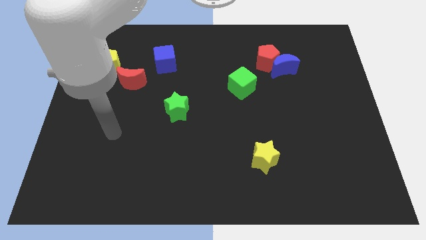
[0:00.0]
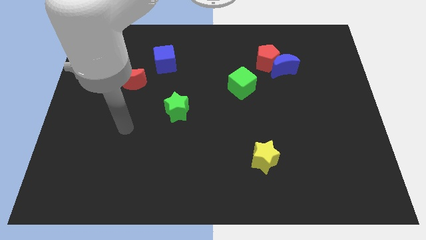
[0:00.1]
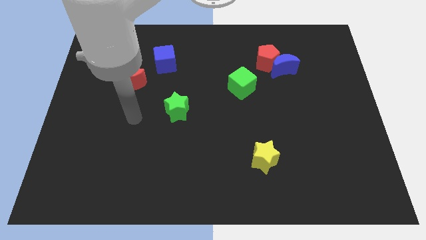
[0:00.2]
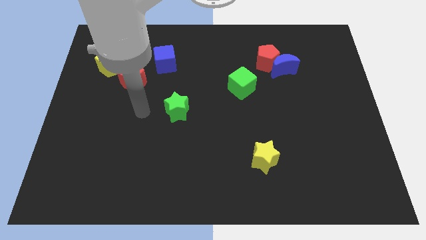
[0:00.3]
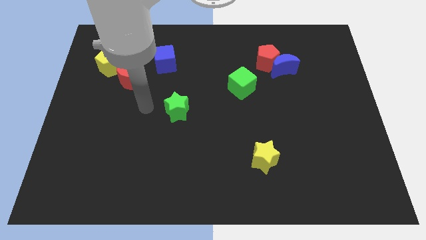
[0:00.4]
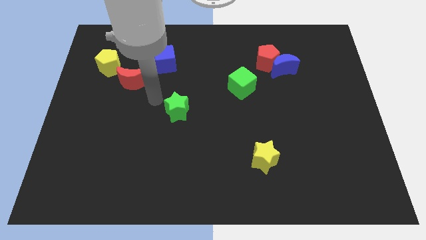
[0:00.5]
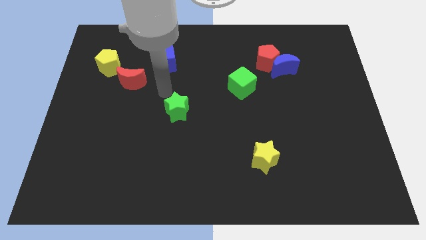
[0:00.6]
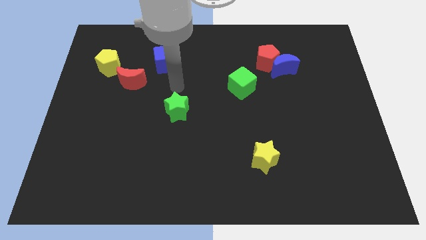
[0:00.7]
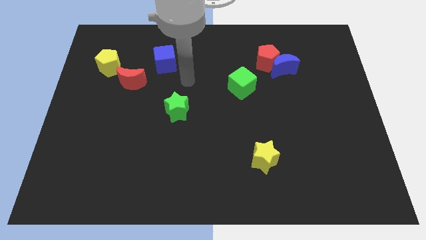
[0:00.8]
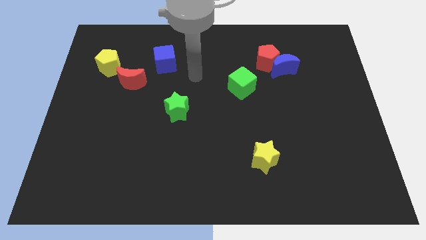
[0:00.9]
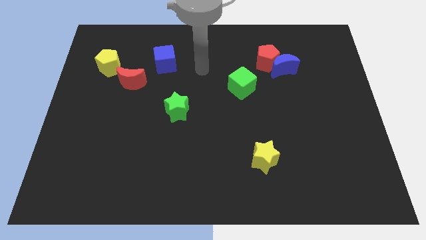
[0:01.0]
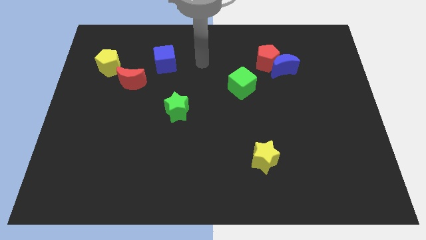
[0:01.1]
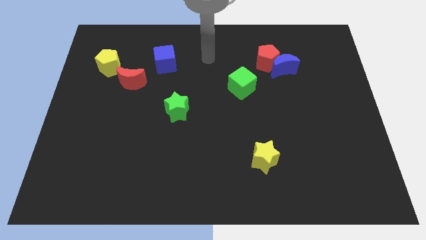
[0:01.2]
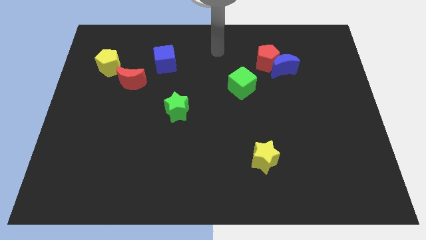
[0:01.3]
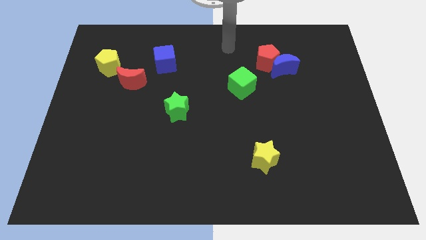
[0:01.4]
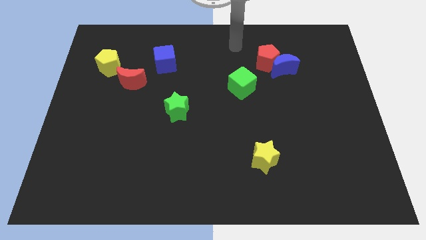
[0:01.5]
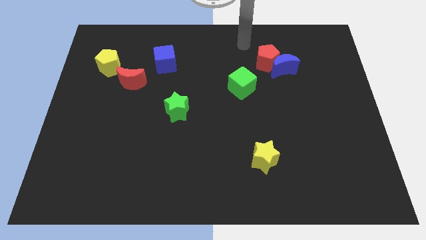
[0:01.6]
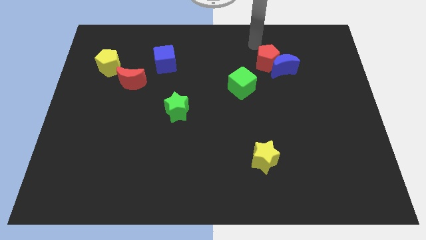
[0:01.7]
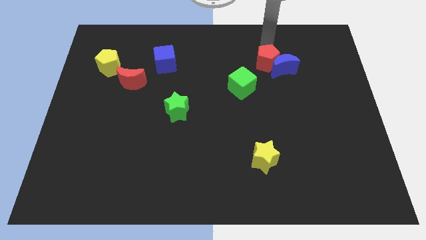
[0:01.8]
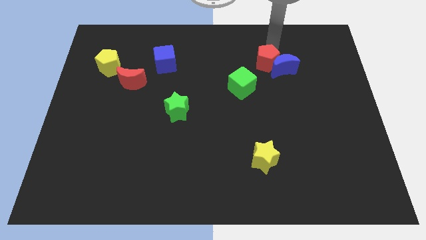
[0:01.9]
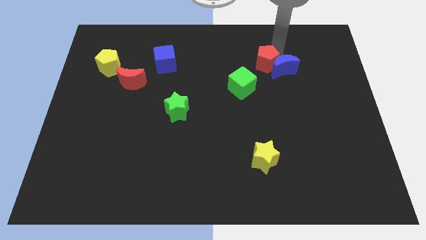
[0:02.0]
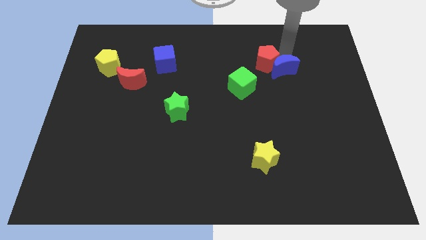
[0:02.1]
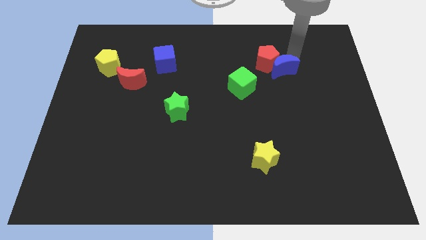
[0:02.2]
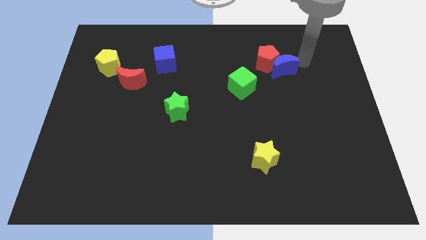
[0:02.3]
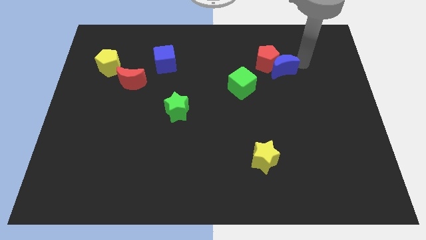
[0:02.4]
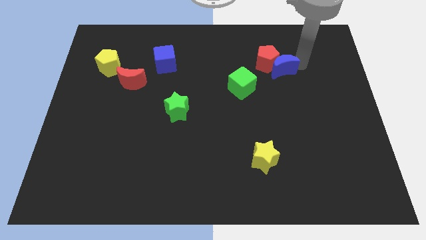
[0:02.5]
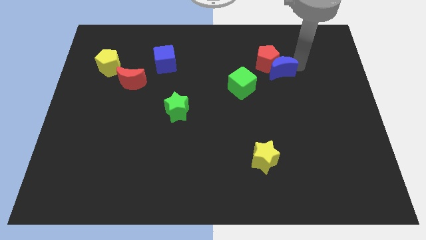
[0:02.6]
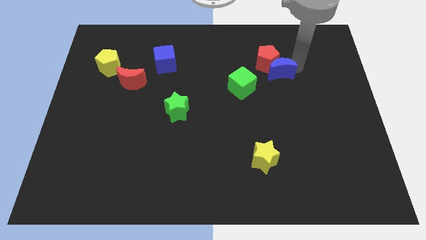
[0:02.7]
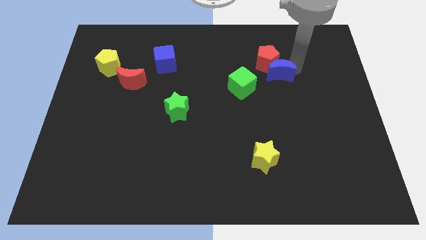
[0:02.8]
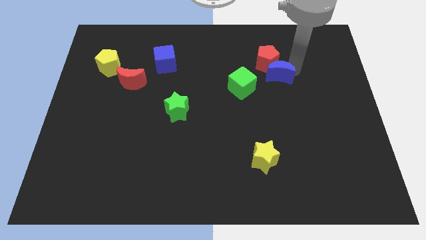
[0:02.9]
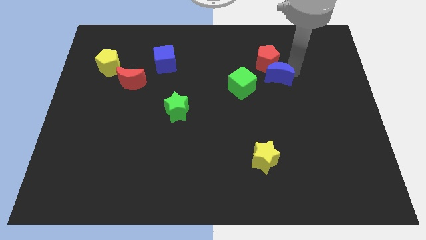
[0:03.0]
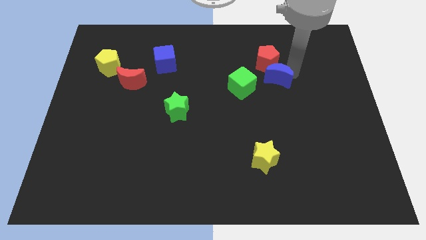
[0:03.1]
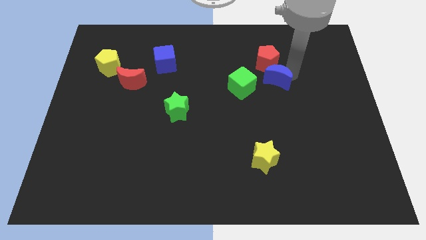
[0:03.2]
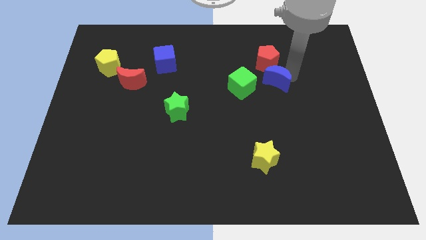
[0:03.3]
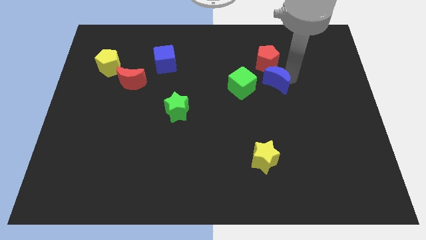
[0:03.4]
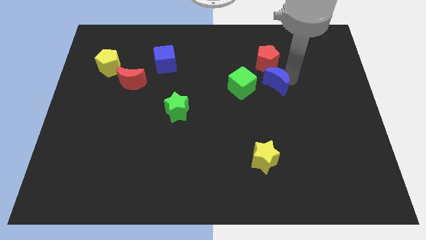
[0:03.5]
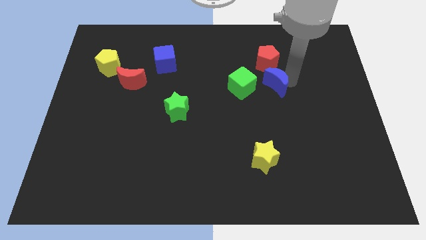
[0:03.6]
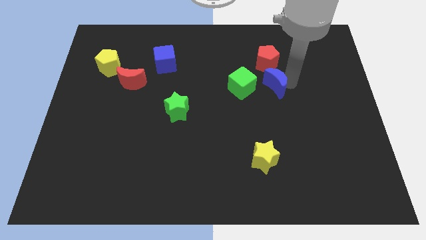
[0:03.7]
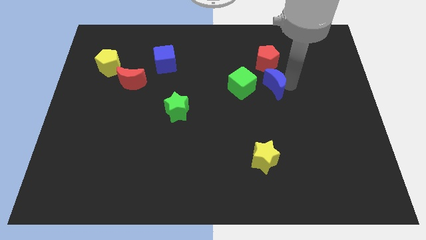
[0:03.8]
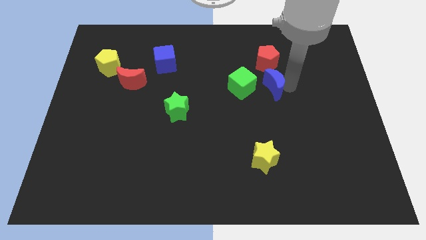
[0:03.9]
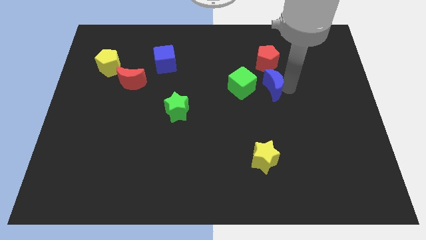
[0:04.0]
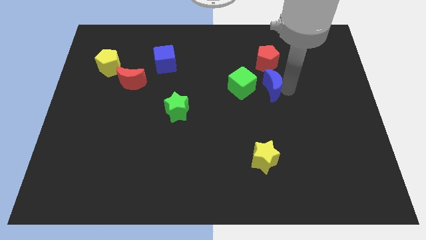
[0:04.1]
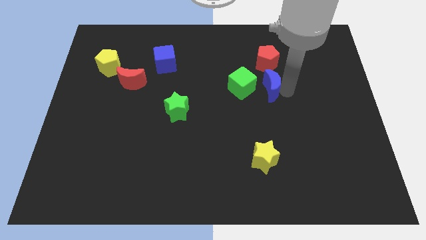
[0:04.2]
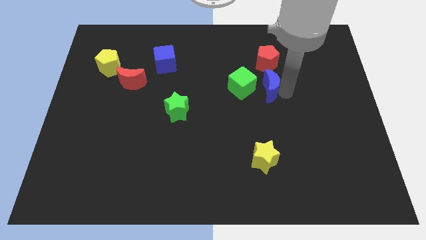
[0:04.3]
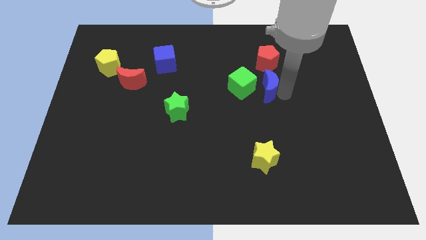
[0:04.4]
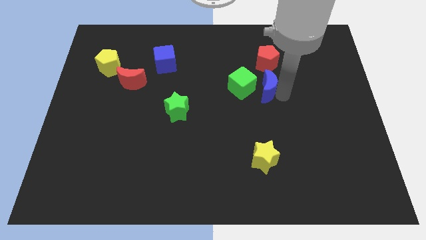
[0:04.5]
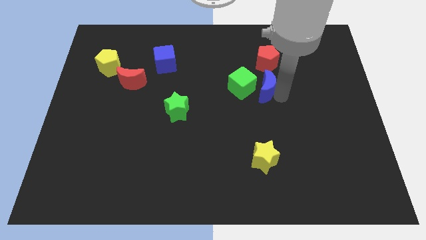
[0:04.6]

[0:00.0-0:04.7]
put the blue moon towards the green cube

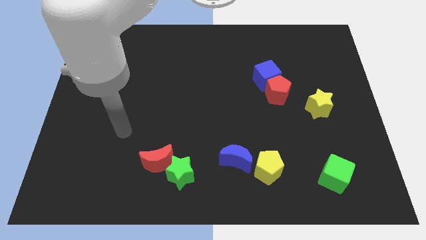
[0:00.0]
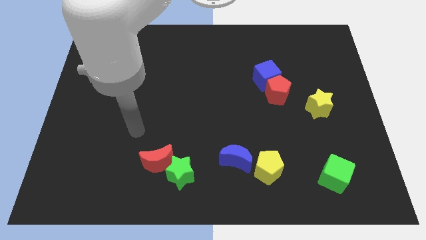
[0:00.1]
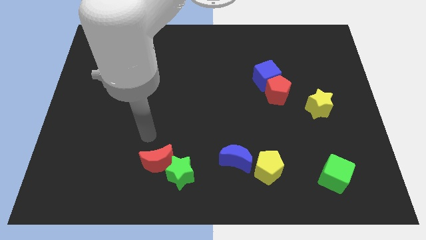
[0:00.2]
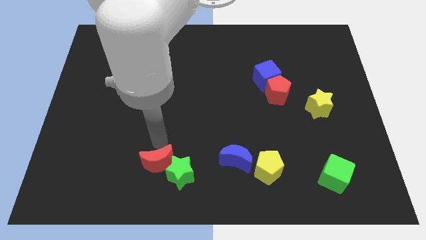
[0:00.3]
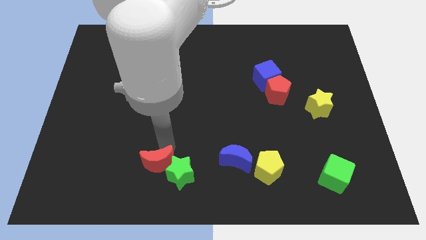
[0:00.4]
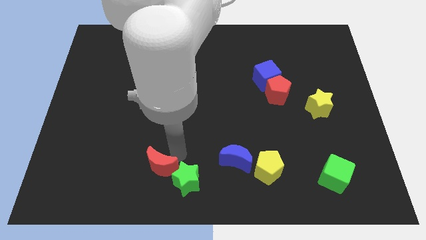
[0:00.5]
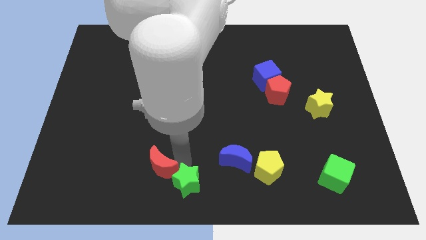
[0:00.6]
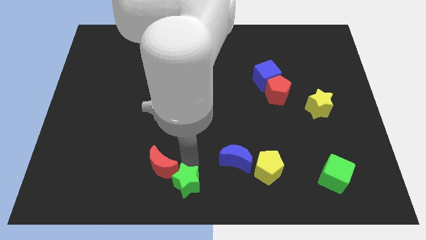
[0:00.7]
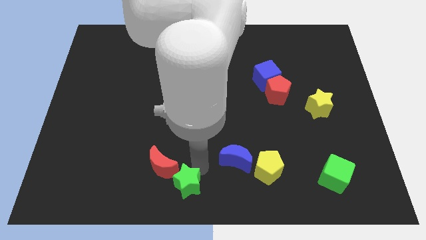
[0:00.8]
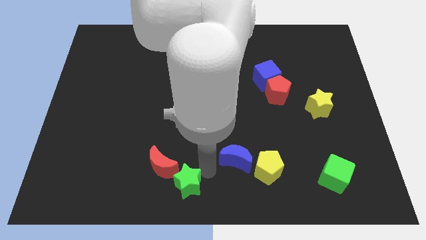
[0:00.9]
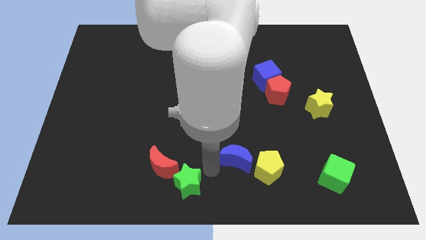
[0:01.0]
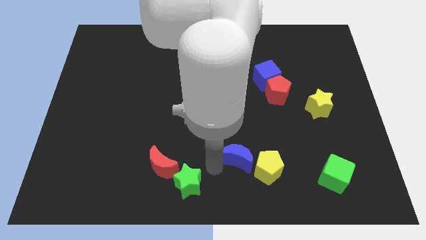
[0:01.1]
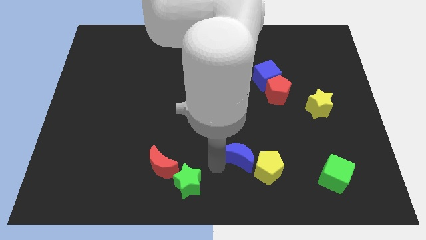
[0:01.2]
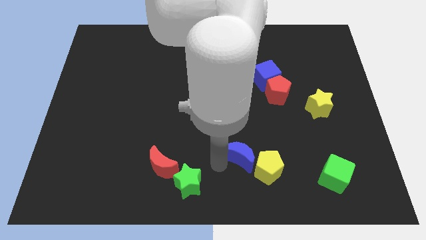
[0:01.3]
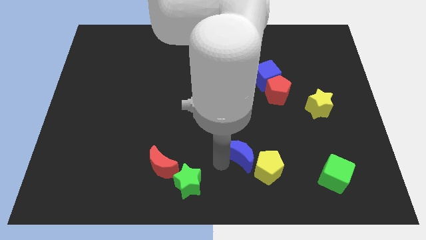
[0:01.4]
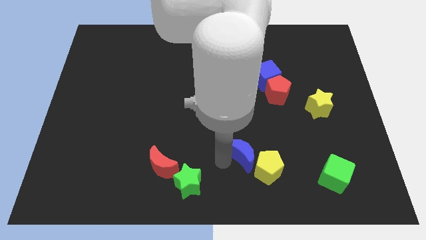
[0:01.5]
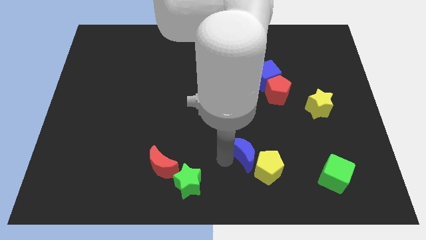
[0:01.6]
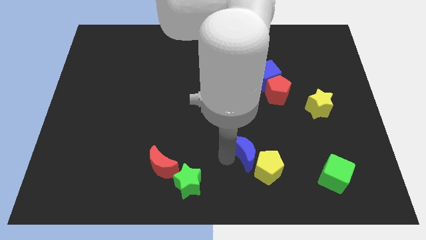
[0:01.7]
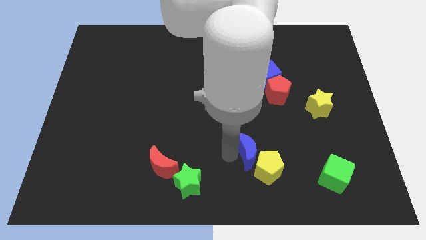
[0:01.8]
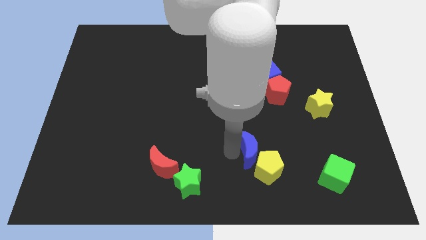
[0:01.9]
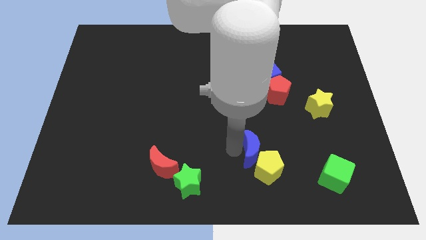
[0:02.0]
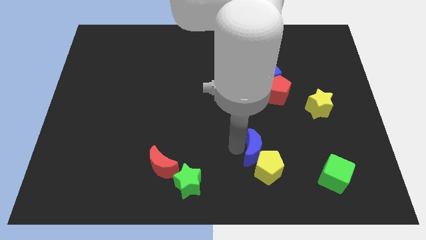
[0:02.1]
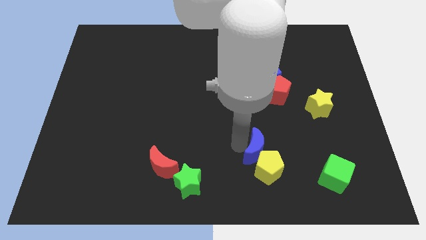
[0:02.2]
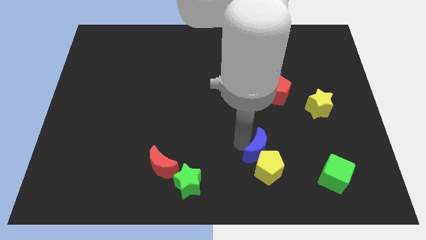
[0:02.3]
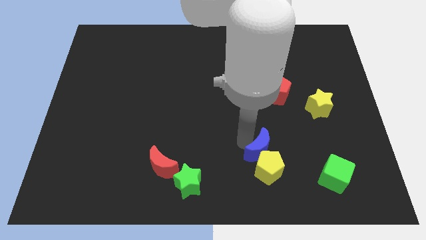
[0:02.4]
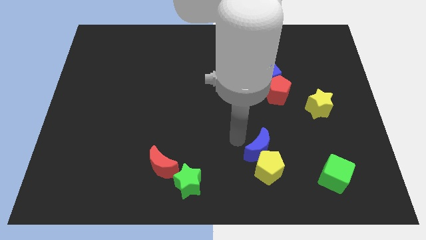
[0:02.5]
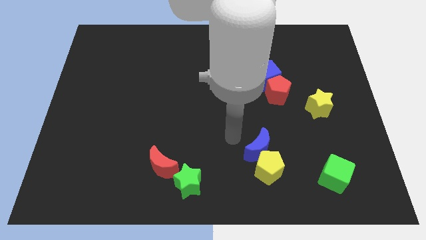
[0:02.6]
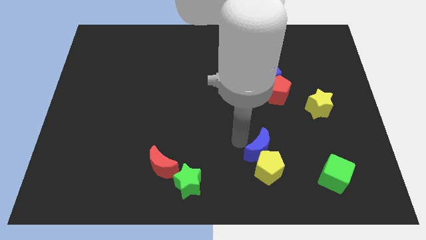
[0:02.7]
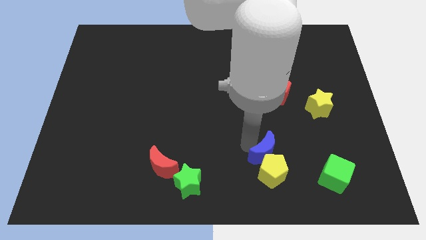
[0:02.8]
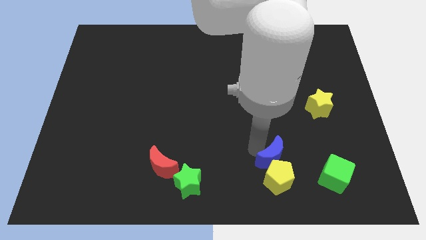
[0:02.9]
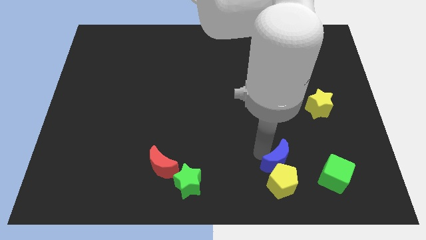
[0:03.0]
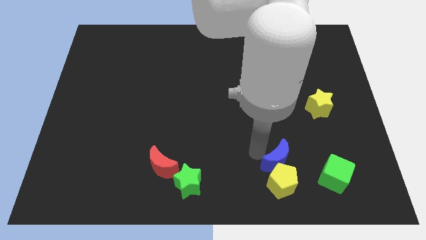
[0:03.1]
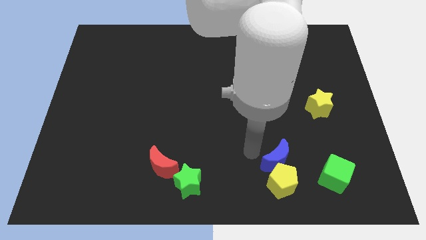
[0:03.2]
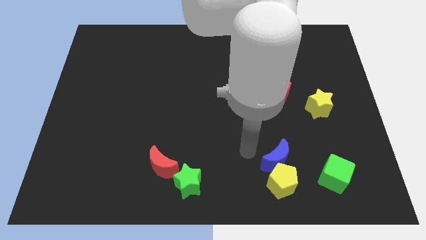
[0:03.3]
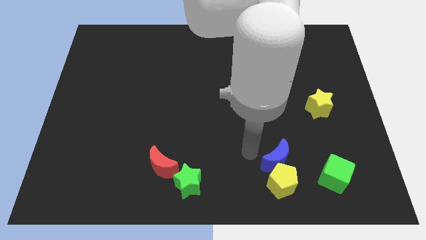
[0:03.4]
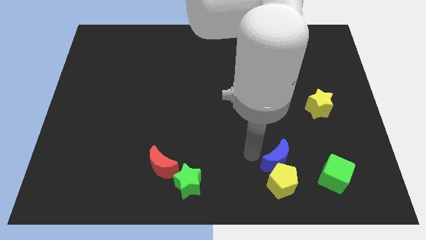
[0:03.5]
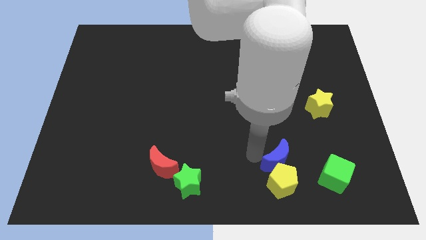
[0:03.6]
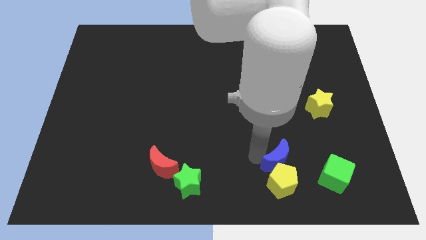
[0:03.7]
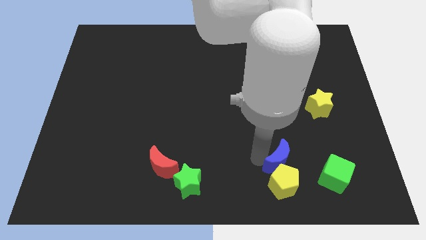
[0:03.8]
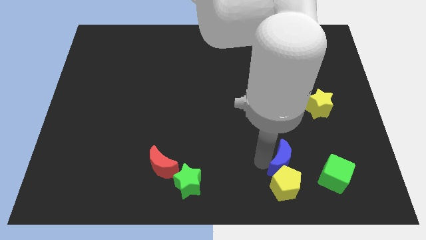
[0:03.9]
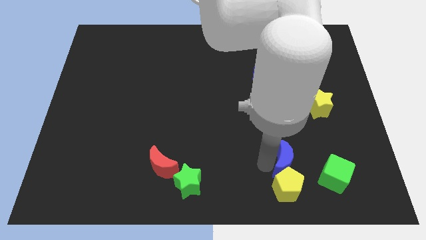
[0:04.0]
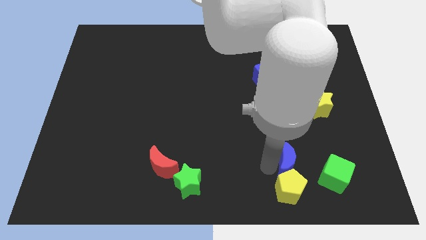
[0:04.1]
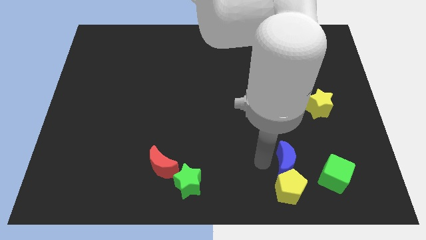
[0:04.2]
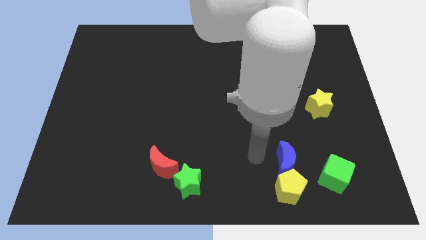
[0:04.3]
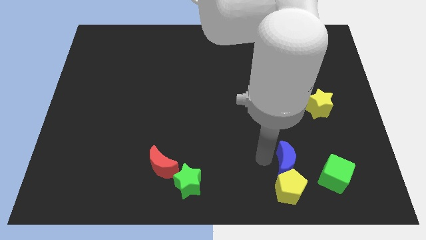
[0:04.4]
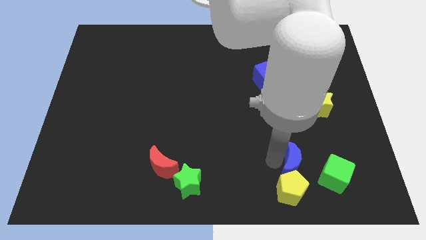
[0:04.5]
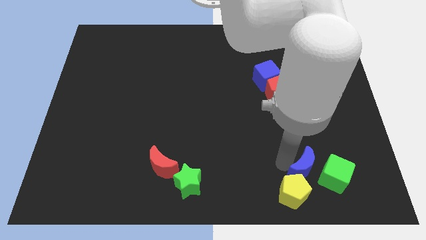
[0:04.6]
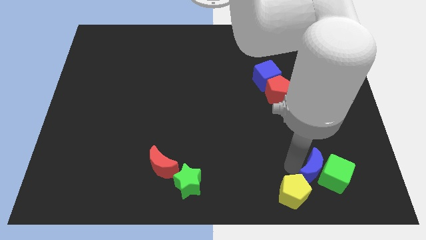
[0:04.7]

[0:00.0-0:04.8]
push the blue moon next to the green cube
